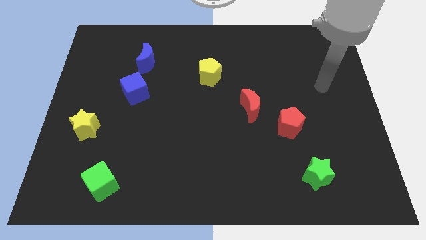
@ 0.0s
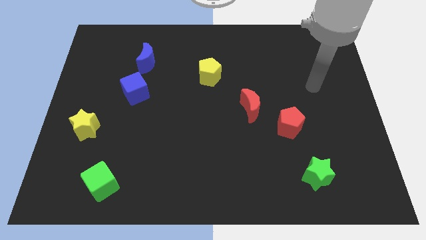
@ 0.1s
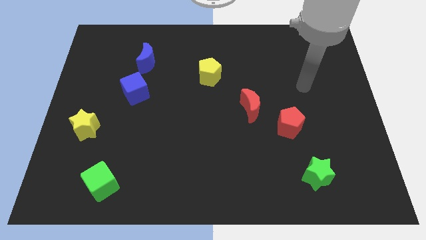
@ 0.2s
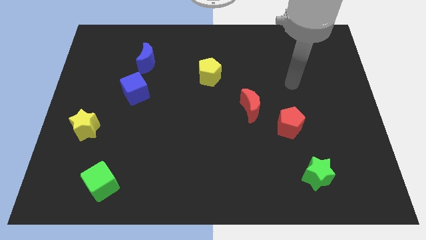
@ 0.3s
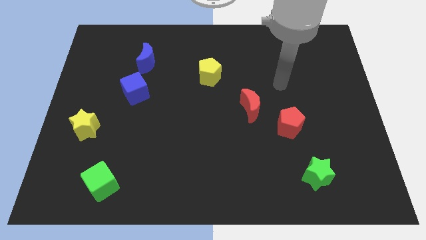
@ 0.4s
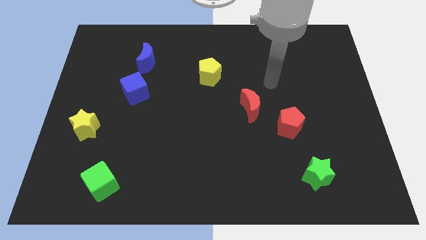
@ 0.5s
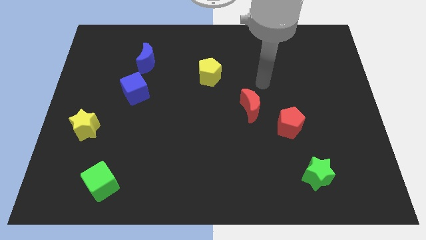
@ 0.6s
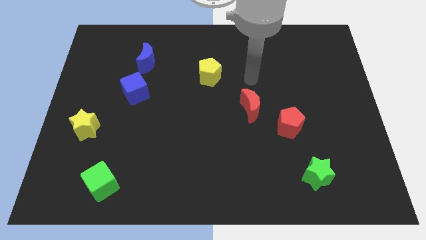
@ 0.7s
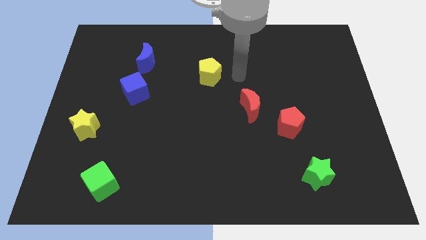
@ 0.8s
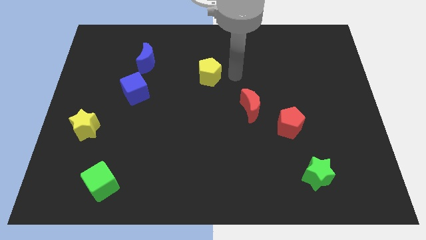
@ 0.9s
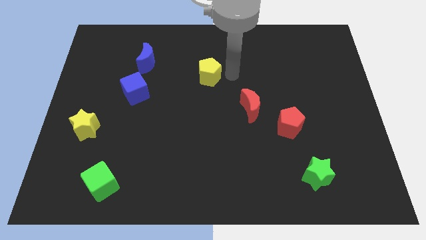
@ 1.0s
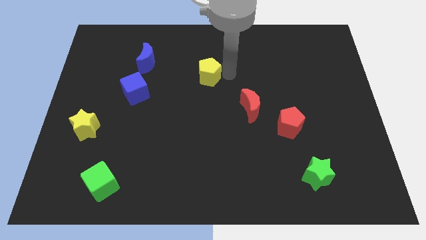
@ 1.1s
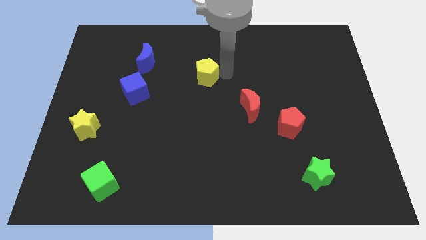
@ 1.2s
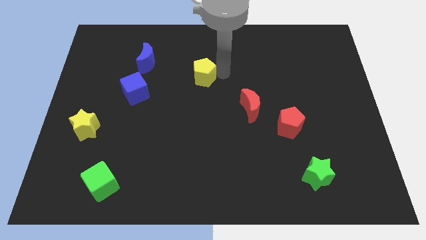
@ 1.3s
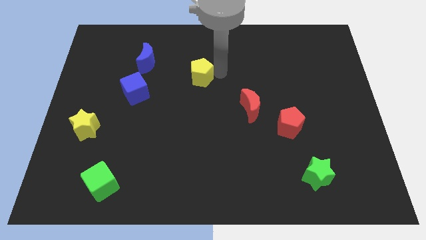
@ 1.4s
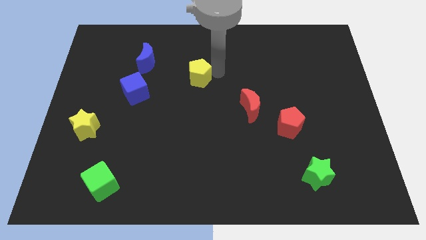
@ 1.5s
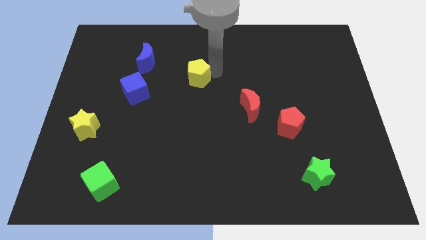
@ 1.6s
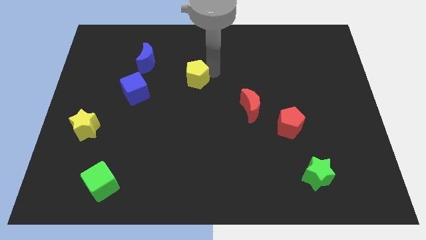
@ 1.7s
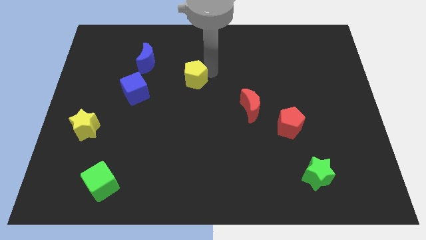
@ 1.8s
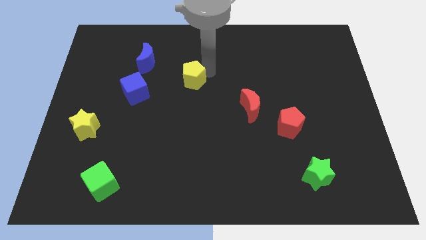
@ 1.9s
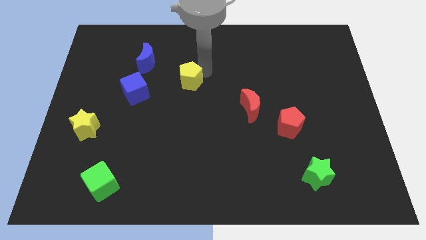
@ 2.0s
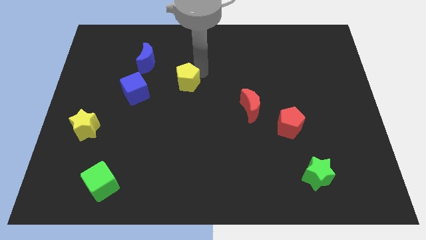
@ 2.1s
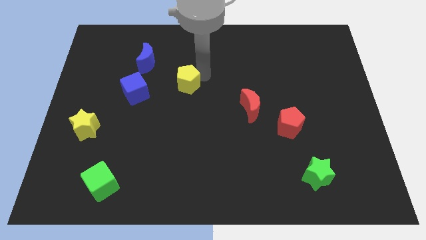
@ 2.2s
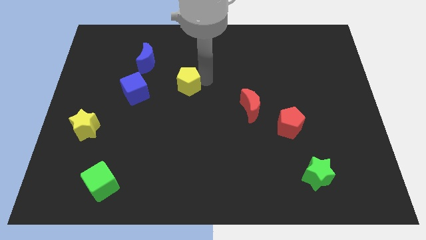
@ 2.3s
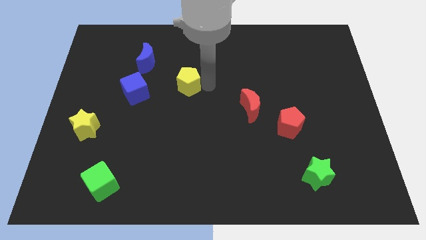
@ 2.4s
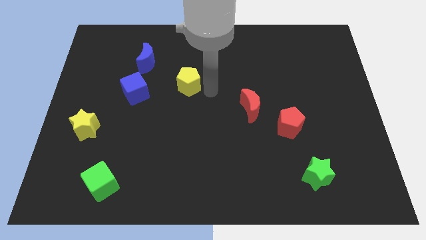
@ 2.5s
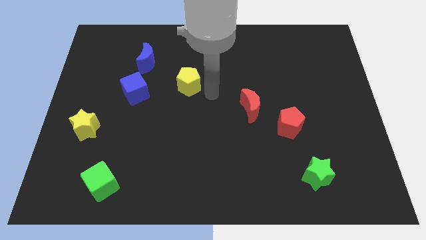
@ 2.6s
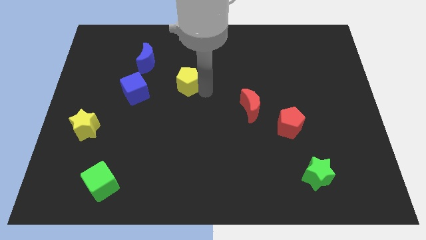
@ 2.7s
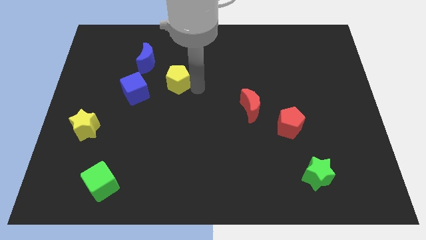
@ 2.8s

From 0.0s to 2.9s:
push the yellow pentagon to the left a bit

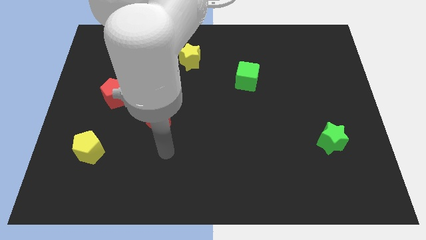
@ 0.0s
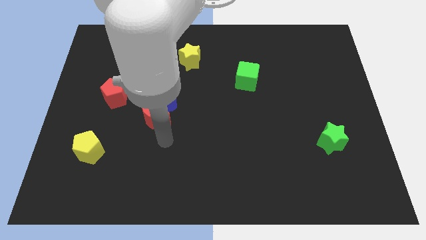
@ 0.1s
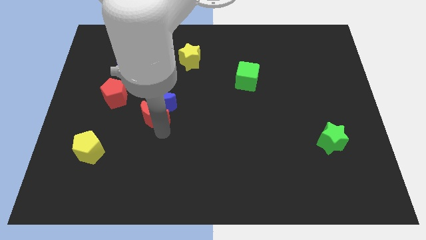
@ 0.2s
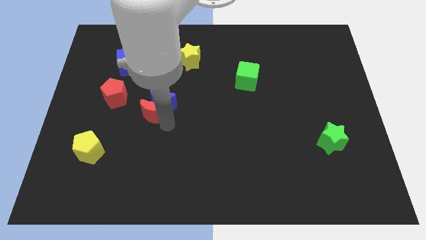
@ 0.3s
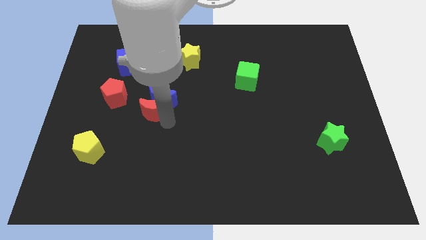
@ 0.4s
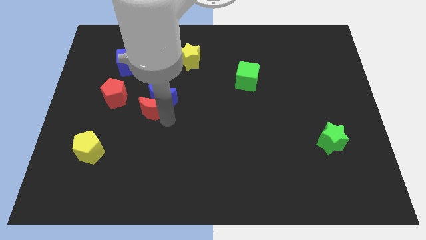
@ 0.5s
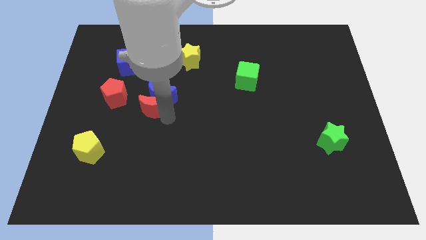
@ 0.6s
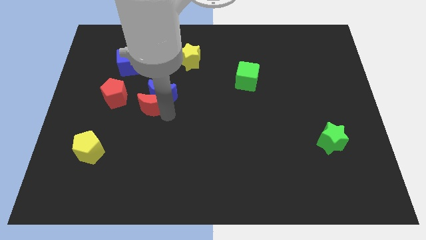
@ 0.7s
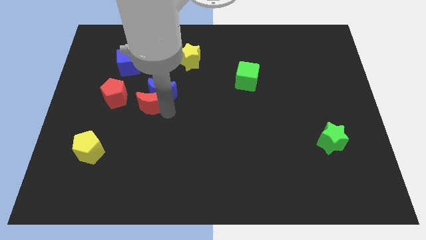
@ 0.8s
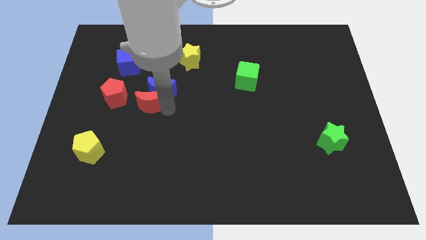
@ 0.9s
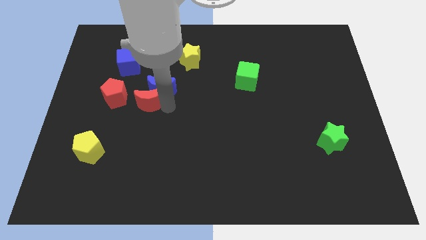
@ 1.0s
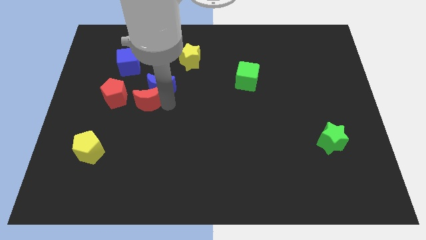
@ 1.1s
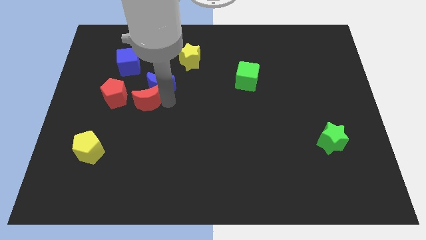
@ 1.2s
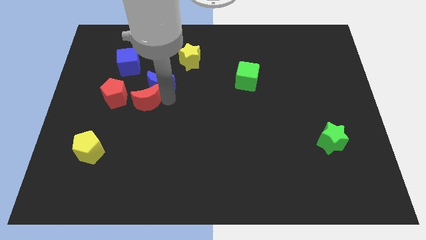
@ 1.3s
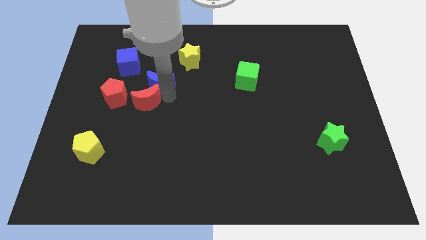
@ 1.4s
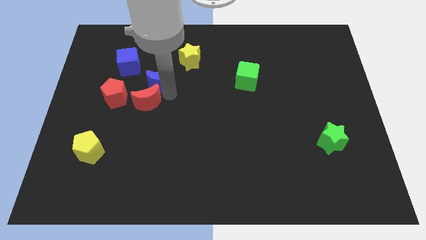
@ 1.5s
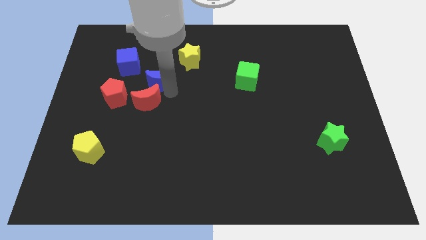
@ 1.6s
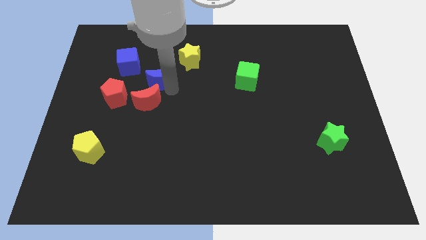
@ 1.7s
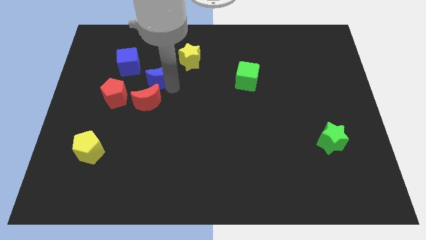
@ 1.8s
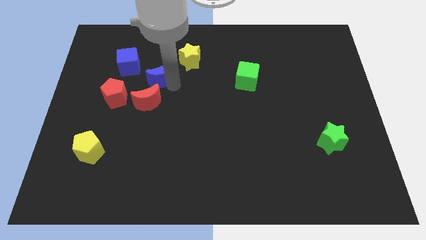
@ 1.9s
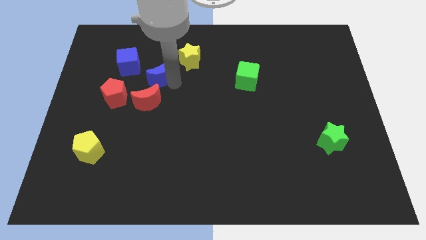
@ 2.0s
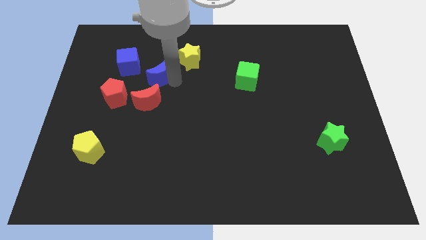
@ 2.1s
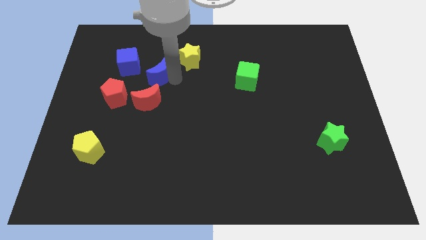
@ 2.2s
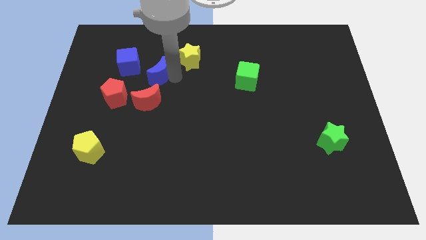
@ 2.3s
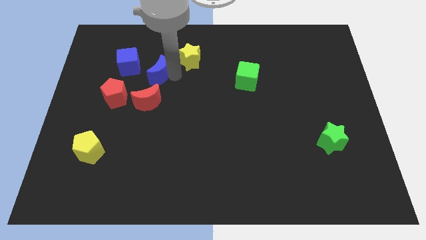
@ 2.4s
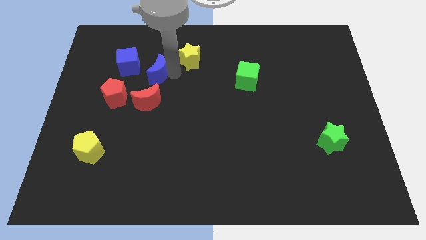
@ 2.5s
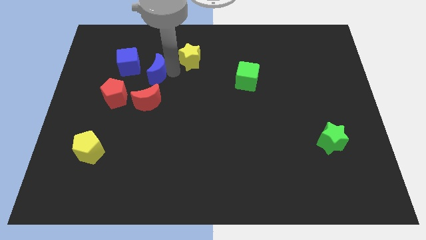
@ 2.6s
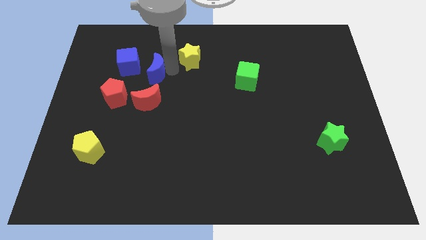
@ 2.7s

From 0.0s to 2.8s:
slide the blue moon up and then to the left slightly

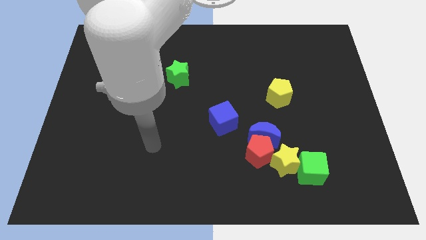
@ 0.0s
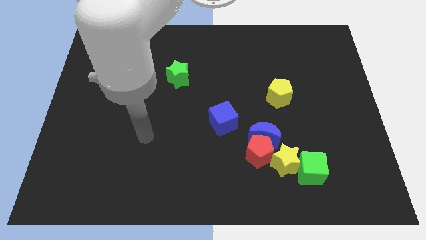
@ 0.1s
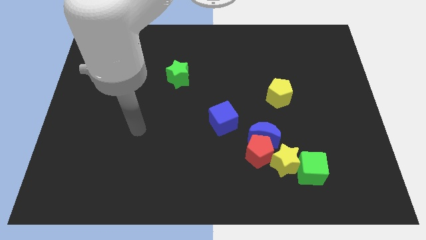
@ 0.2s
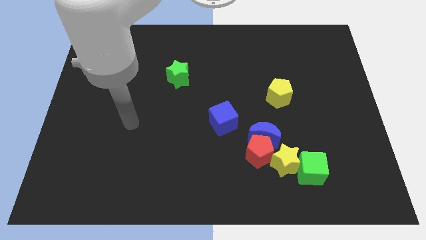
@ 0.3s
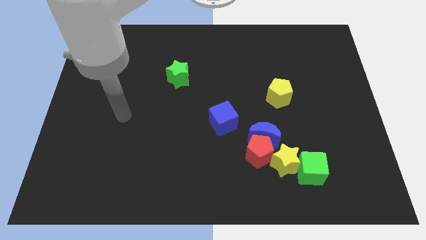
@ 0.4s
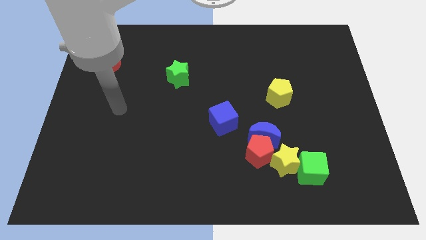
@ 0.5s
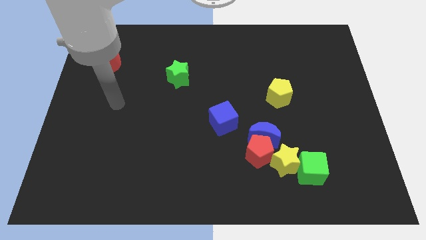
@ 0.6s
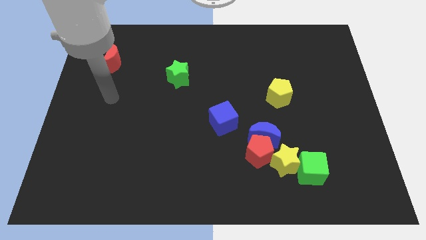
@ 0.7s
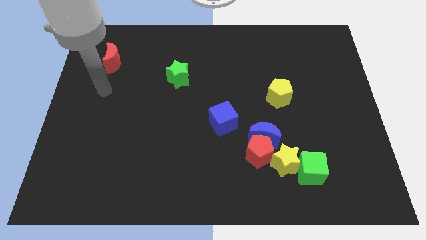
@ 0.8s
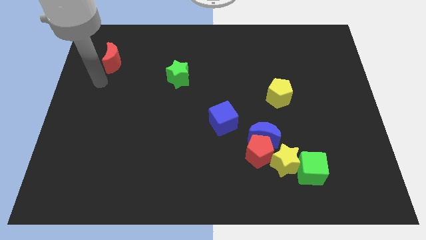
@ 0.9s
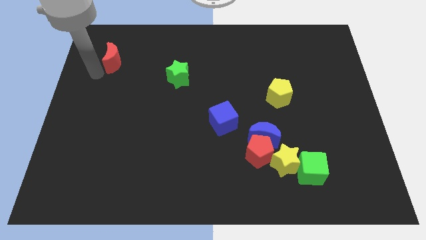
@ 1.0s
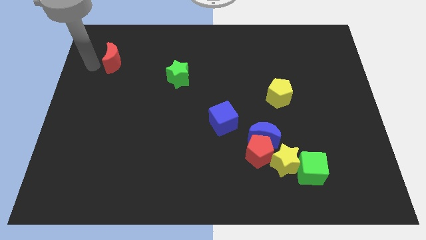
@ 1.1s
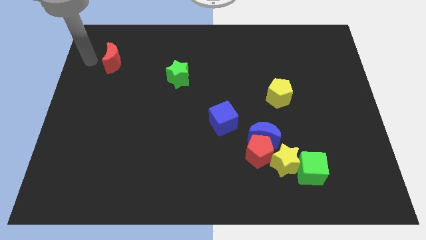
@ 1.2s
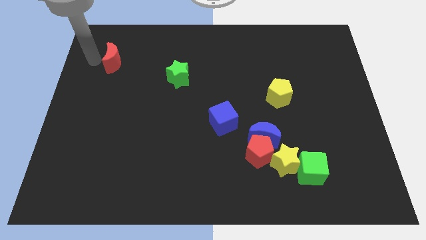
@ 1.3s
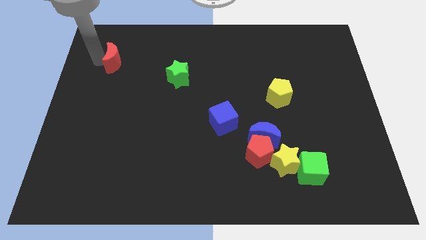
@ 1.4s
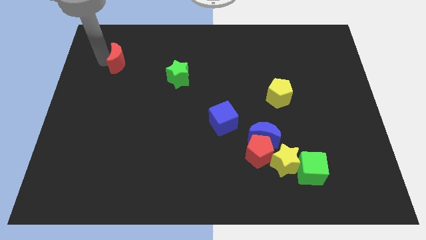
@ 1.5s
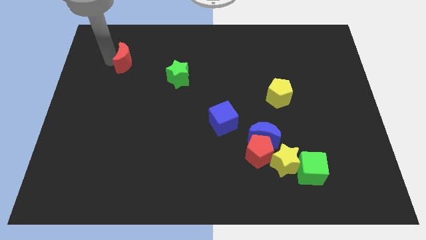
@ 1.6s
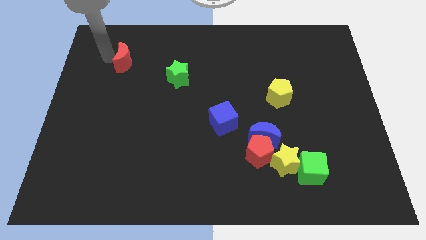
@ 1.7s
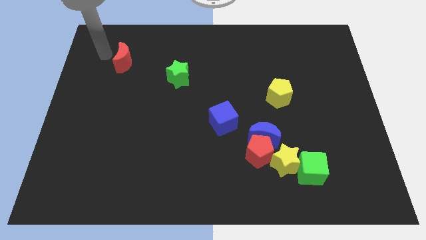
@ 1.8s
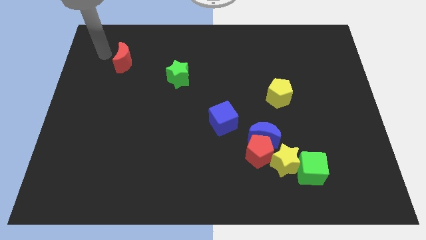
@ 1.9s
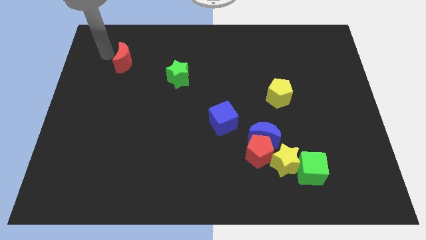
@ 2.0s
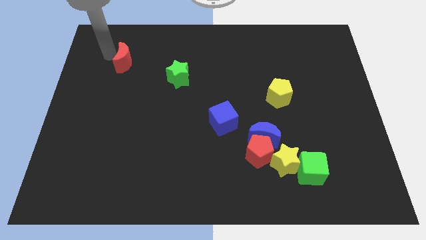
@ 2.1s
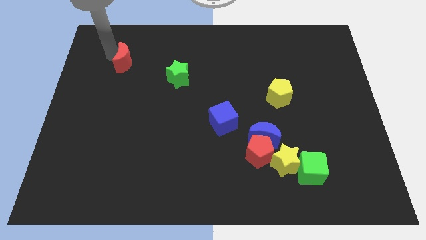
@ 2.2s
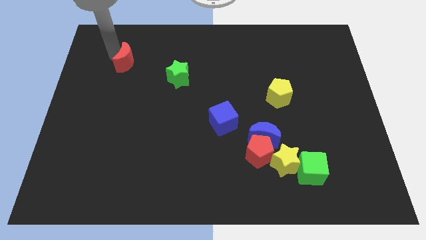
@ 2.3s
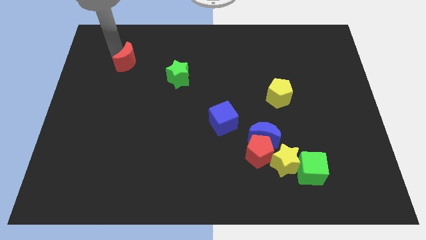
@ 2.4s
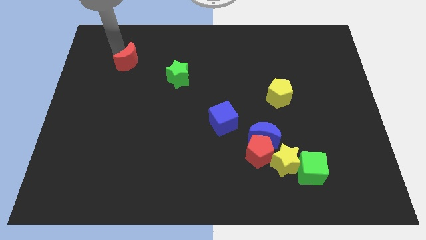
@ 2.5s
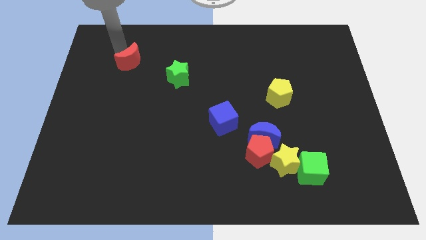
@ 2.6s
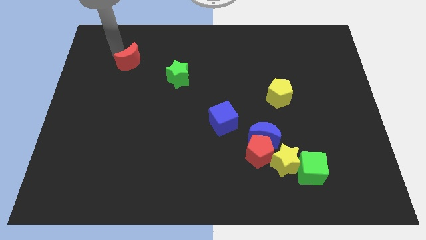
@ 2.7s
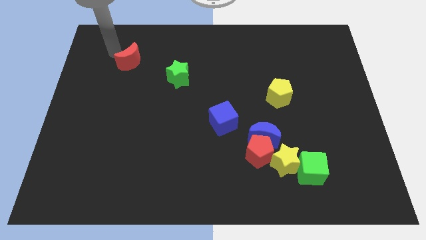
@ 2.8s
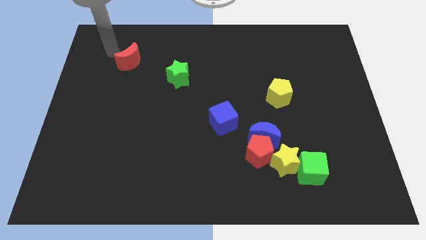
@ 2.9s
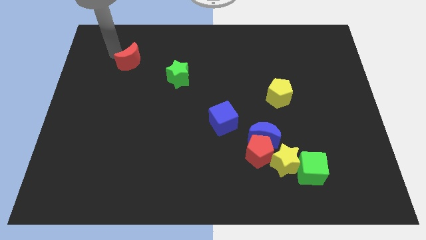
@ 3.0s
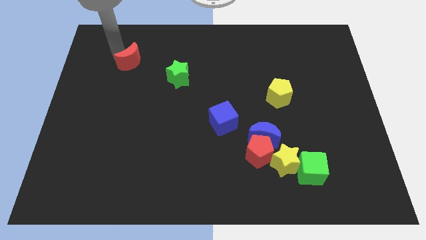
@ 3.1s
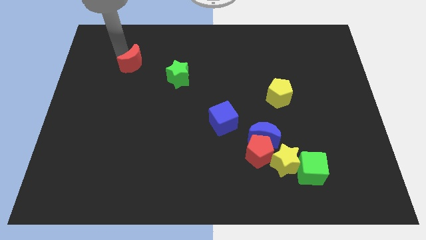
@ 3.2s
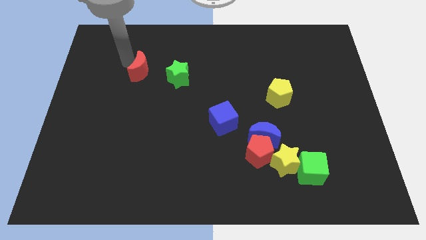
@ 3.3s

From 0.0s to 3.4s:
slightly move the red moon to the right
